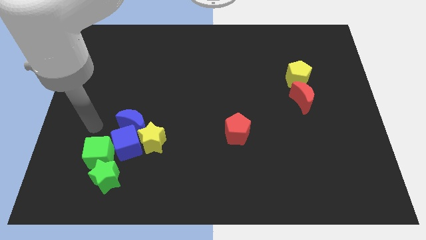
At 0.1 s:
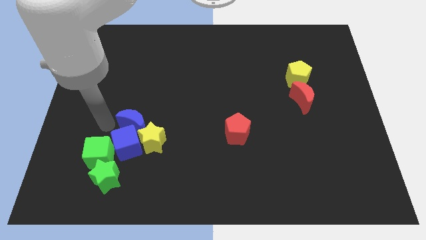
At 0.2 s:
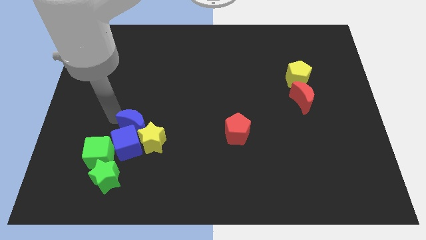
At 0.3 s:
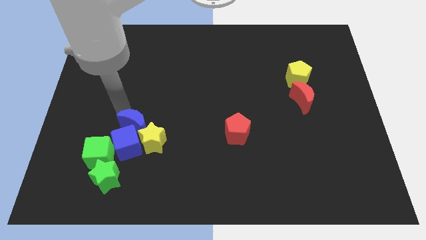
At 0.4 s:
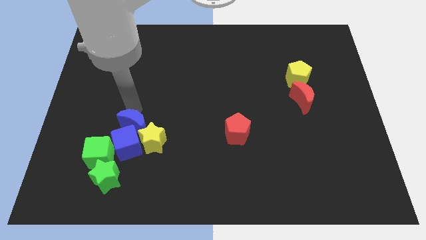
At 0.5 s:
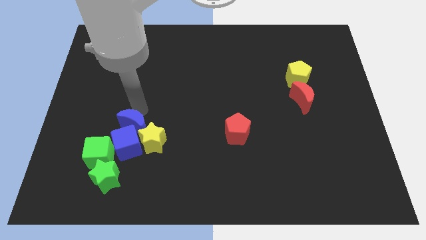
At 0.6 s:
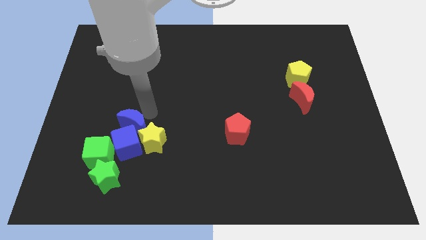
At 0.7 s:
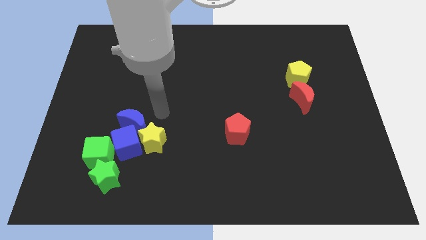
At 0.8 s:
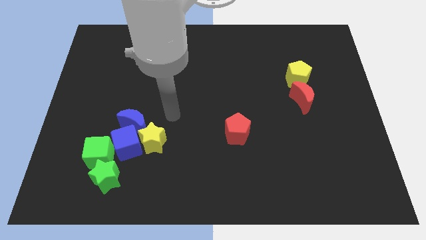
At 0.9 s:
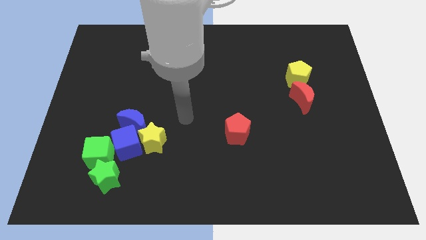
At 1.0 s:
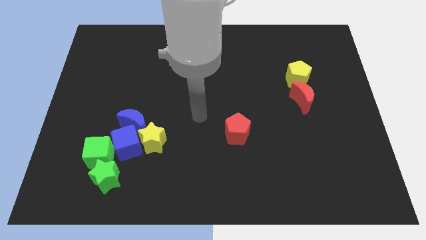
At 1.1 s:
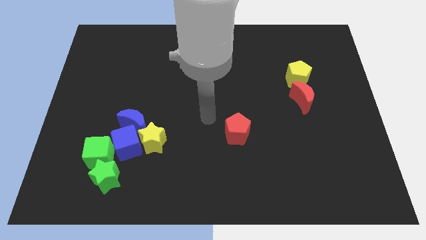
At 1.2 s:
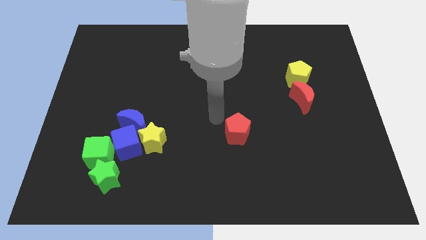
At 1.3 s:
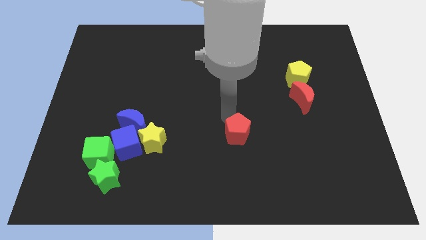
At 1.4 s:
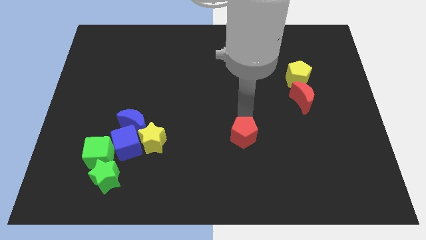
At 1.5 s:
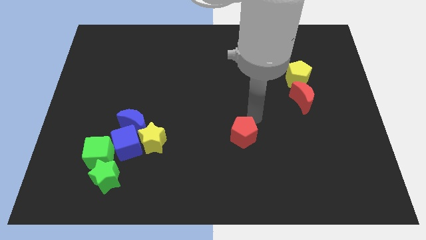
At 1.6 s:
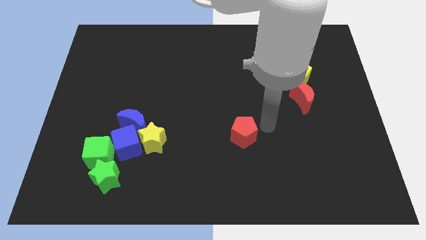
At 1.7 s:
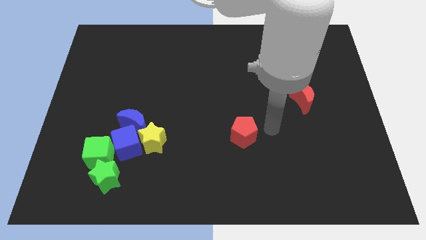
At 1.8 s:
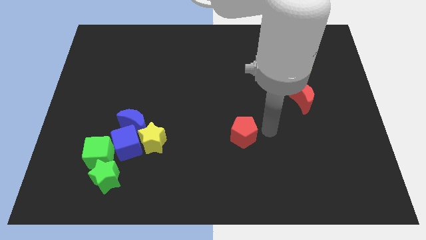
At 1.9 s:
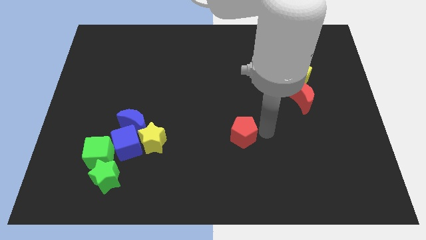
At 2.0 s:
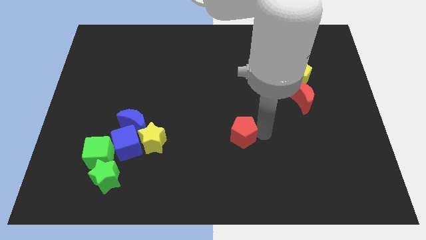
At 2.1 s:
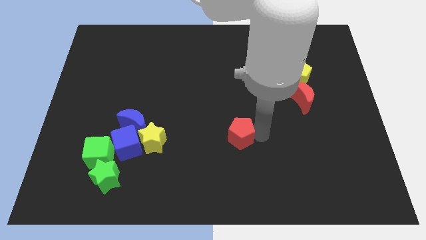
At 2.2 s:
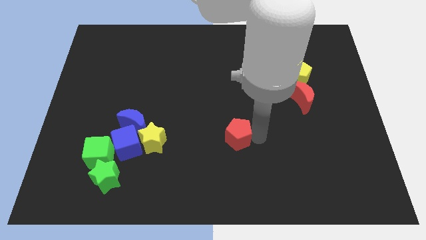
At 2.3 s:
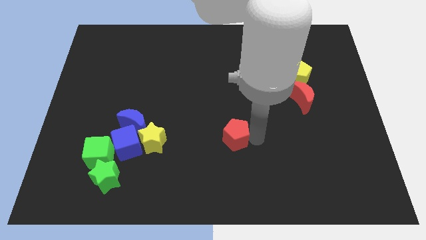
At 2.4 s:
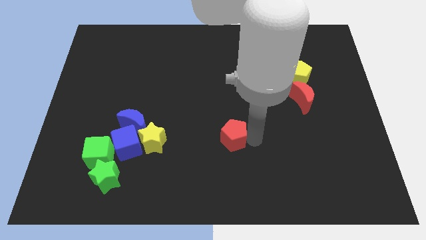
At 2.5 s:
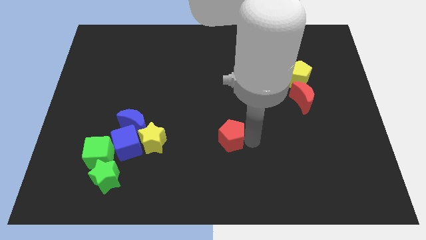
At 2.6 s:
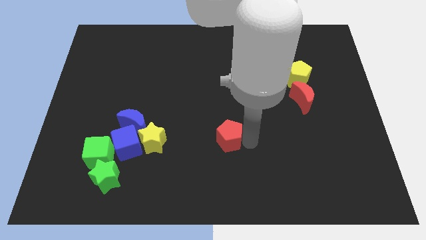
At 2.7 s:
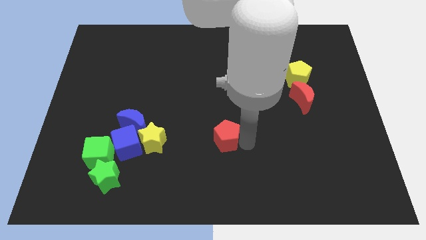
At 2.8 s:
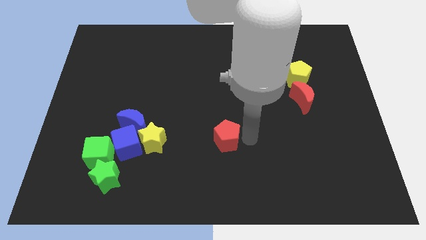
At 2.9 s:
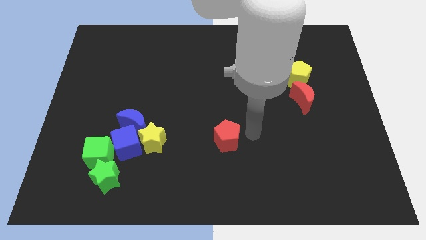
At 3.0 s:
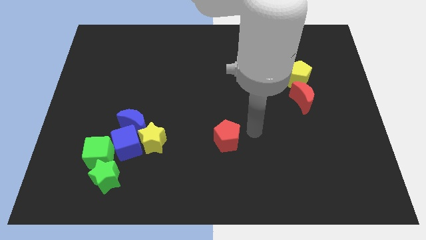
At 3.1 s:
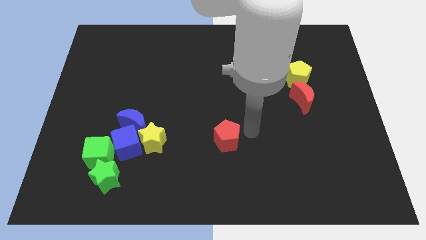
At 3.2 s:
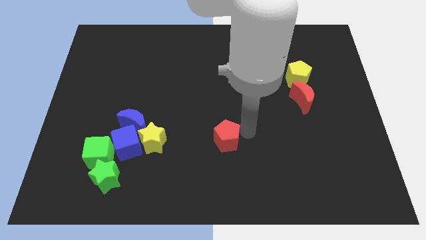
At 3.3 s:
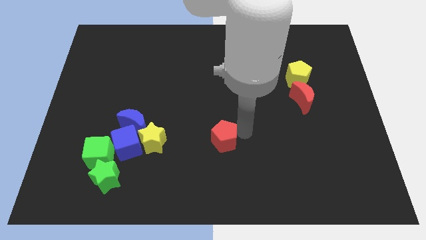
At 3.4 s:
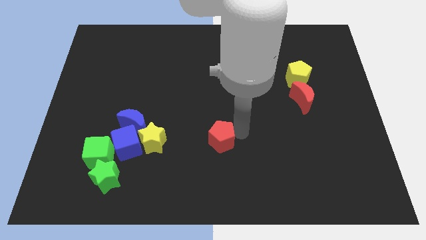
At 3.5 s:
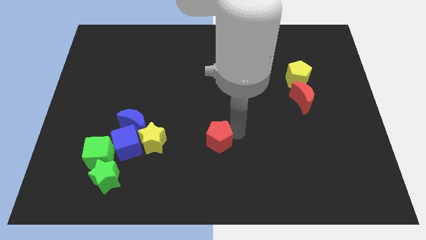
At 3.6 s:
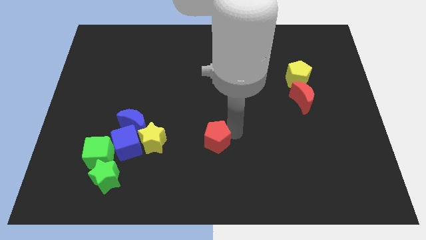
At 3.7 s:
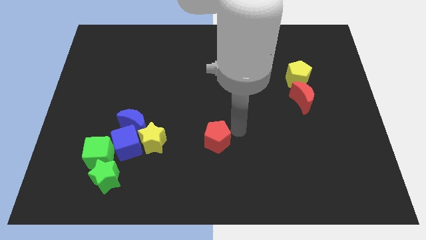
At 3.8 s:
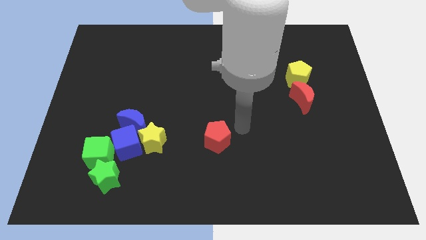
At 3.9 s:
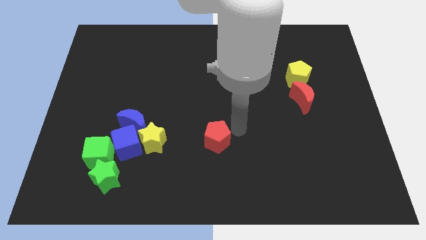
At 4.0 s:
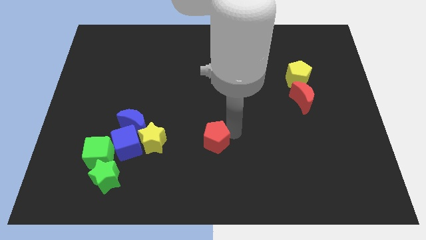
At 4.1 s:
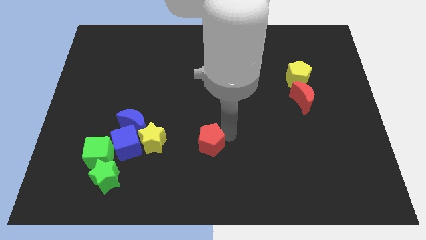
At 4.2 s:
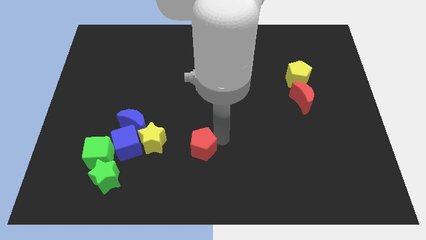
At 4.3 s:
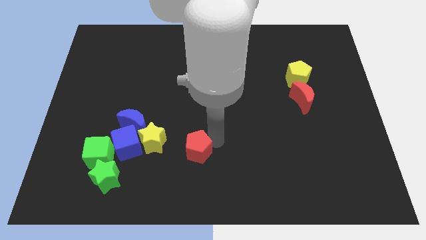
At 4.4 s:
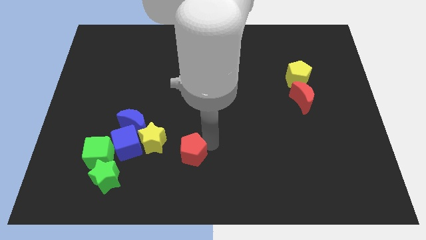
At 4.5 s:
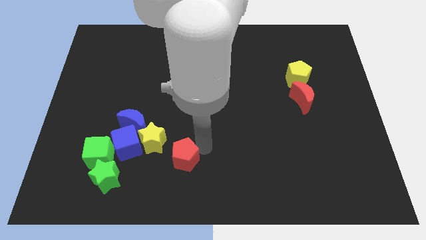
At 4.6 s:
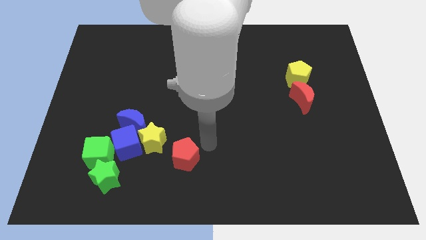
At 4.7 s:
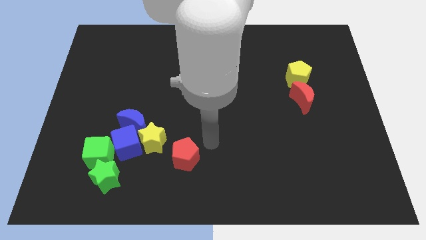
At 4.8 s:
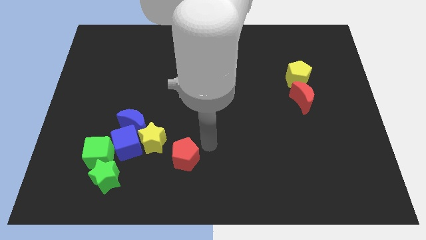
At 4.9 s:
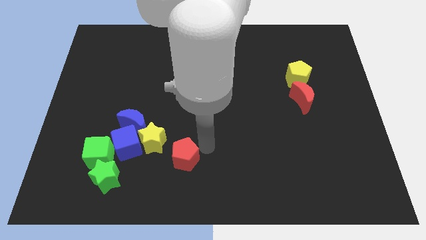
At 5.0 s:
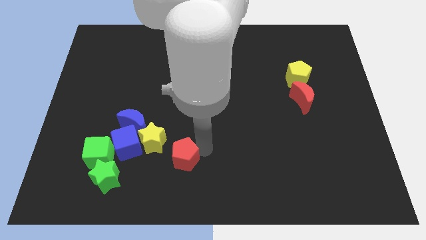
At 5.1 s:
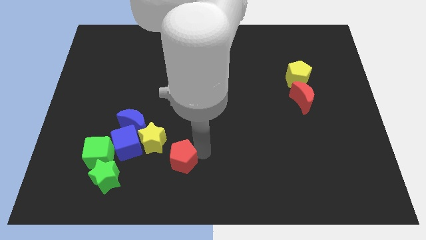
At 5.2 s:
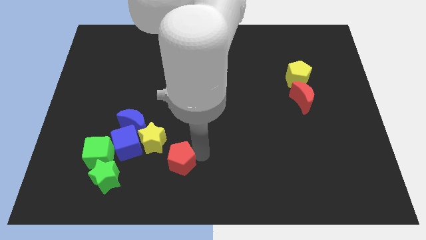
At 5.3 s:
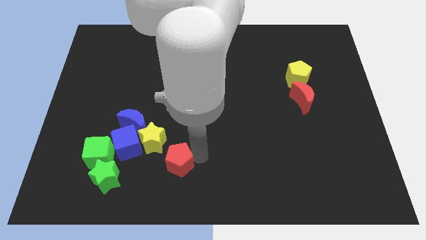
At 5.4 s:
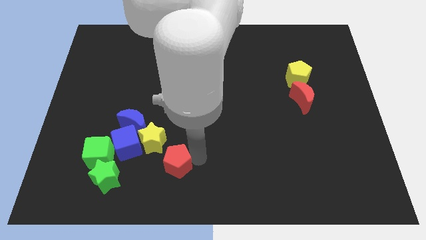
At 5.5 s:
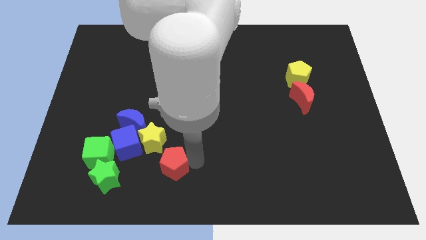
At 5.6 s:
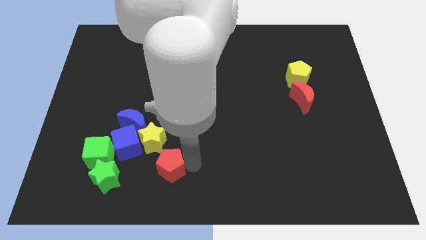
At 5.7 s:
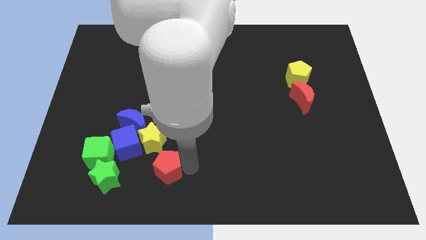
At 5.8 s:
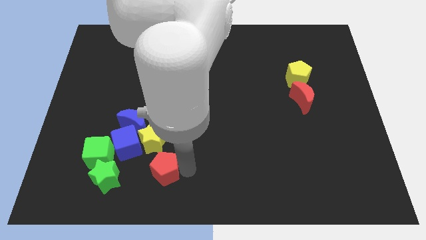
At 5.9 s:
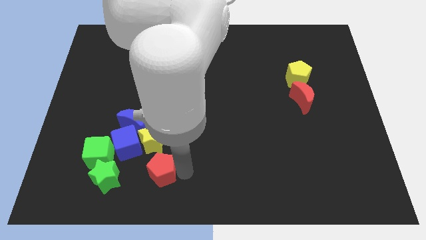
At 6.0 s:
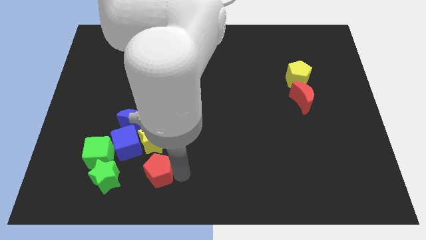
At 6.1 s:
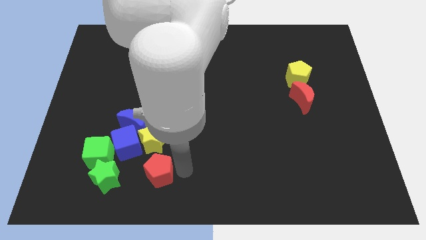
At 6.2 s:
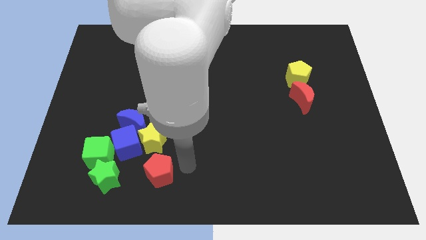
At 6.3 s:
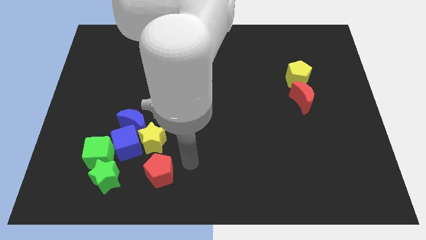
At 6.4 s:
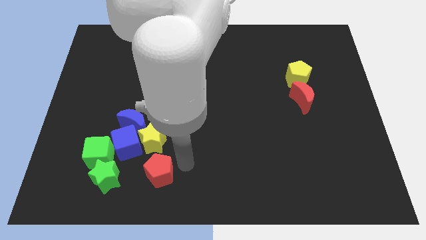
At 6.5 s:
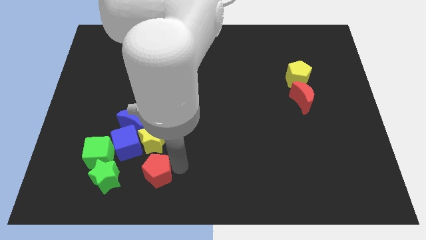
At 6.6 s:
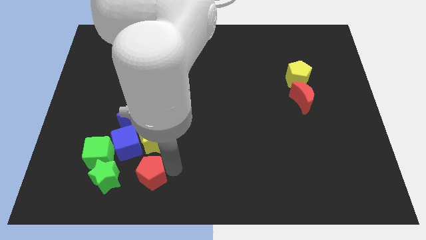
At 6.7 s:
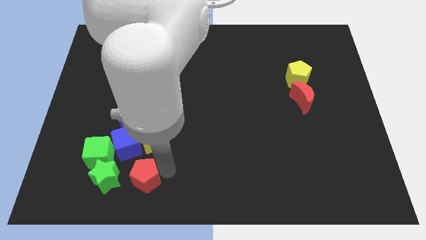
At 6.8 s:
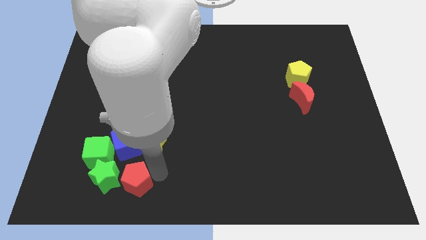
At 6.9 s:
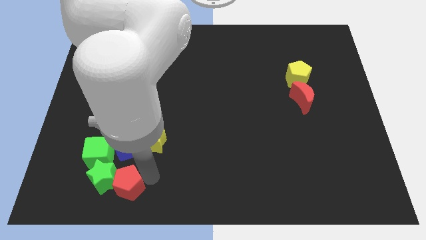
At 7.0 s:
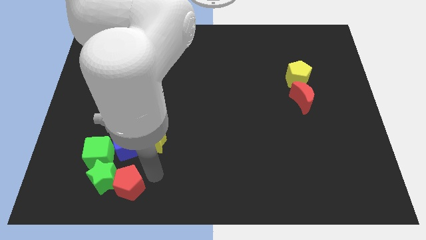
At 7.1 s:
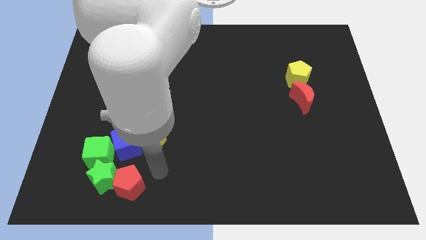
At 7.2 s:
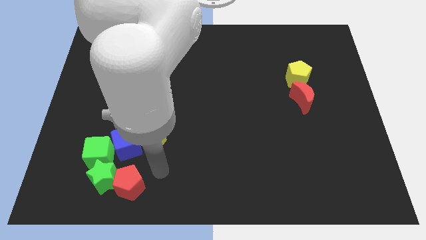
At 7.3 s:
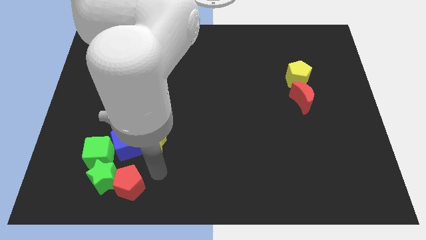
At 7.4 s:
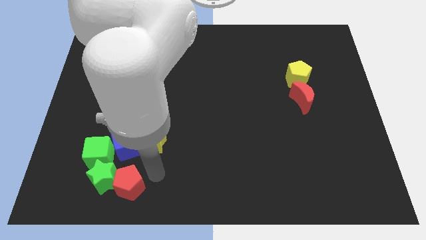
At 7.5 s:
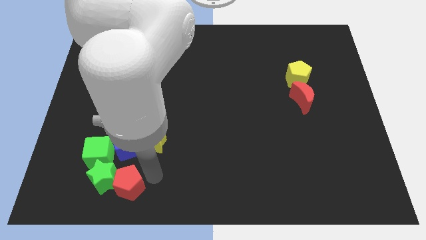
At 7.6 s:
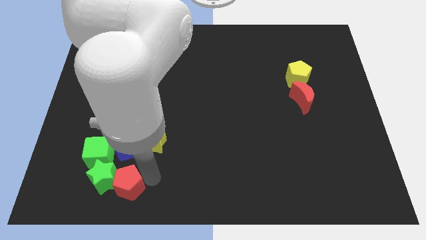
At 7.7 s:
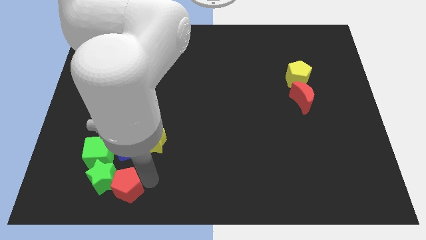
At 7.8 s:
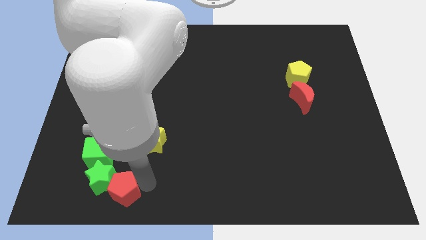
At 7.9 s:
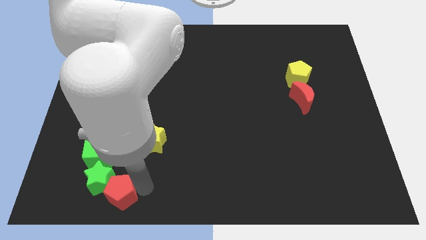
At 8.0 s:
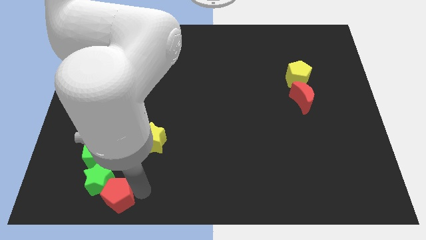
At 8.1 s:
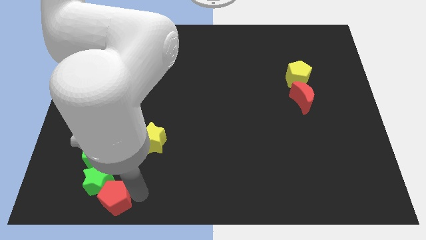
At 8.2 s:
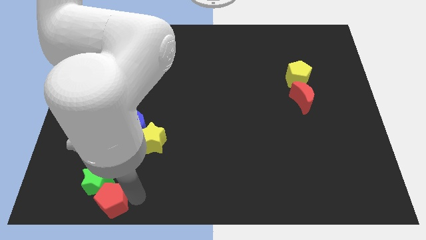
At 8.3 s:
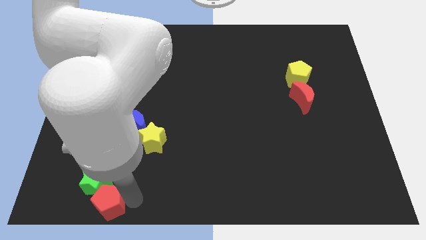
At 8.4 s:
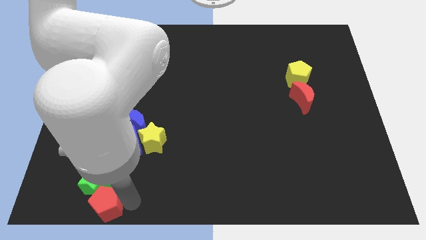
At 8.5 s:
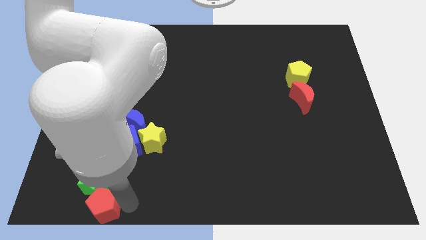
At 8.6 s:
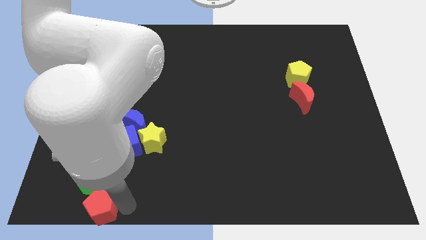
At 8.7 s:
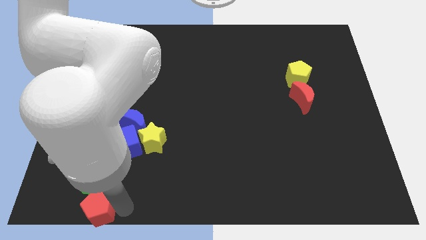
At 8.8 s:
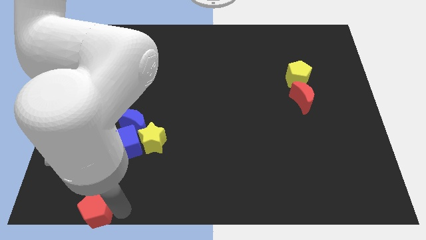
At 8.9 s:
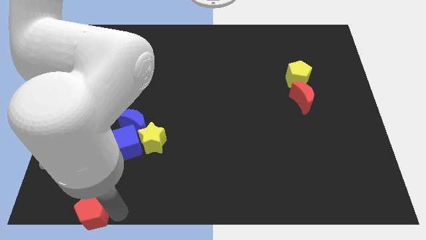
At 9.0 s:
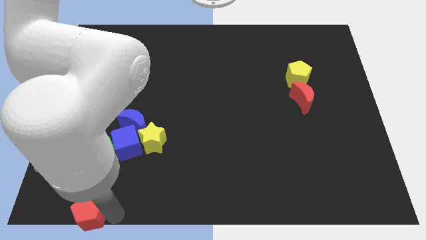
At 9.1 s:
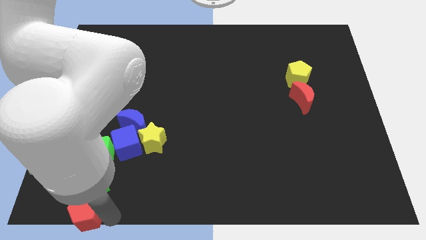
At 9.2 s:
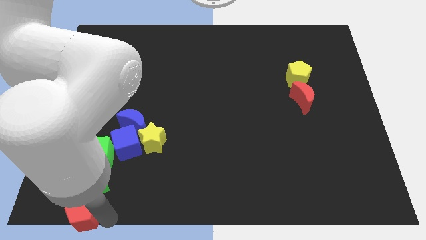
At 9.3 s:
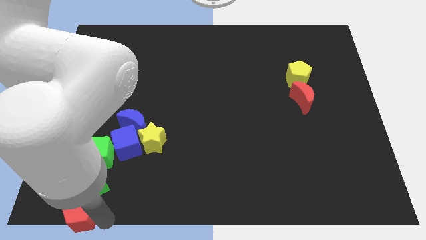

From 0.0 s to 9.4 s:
put the red pentagon to the lower left corner
